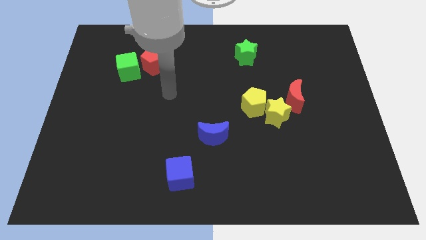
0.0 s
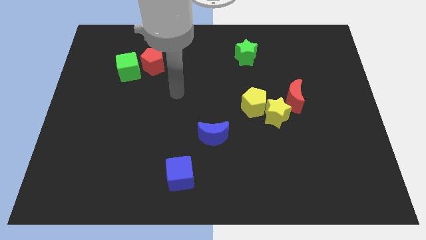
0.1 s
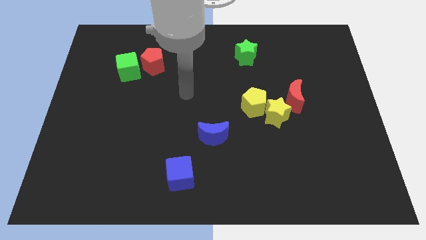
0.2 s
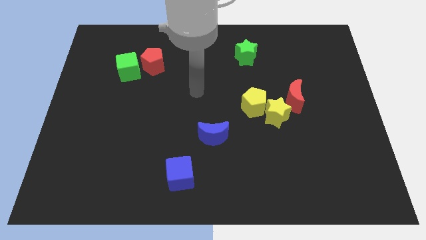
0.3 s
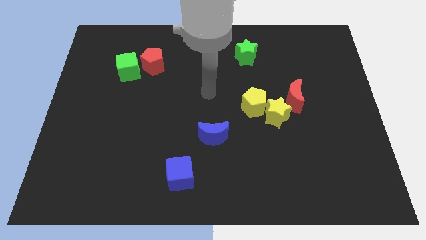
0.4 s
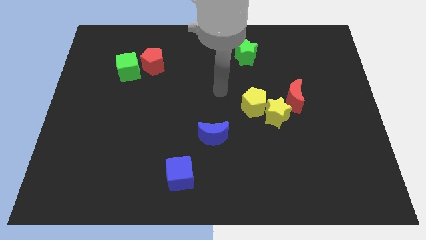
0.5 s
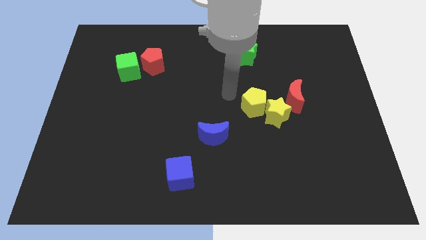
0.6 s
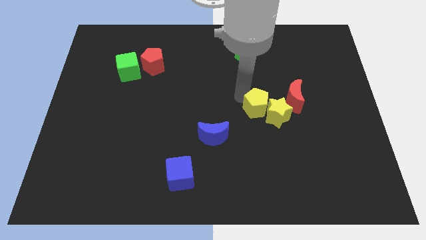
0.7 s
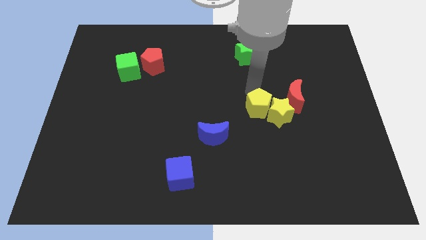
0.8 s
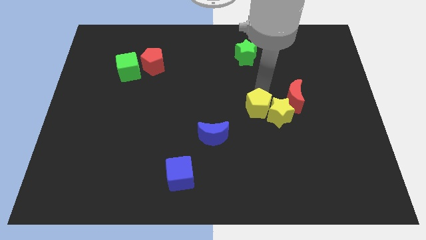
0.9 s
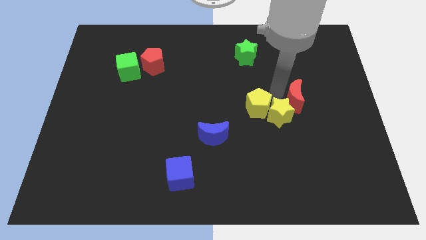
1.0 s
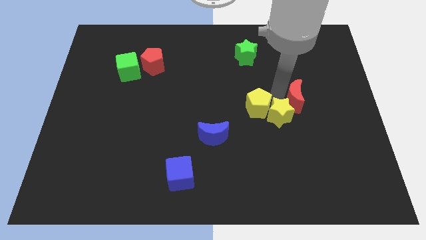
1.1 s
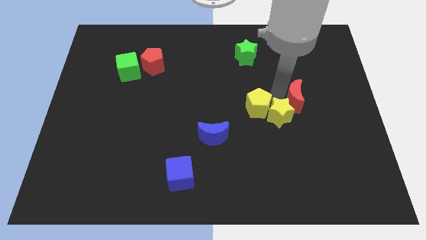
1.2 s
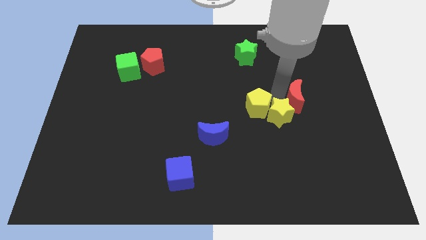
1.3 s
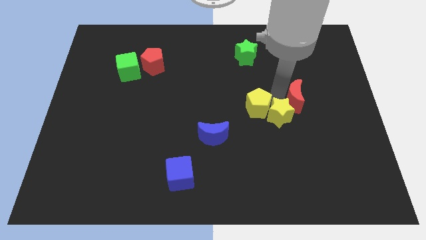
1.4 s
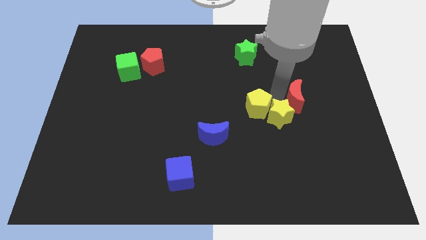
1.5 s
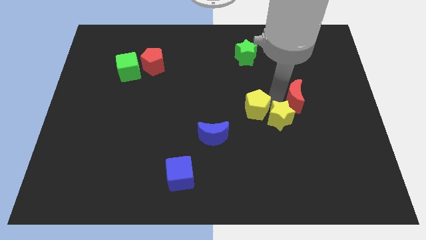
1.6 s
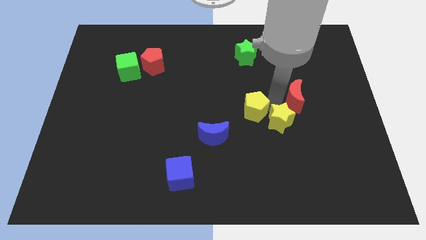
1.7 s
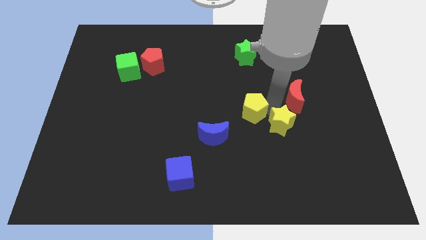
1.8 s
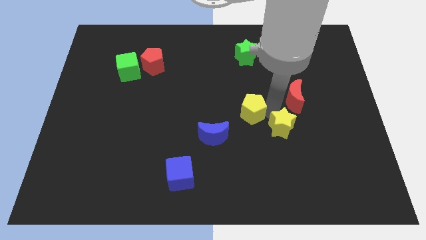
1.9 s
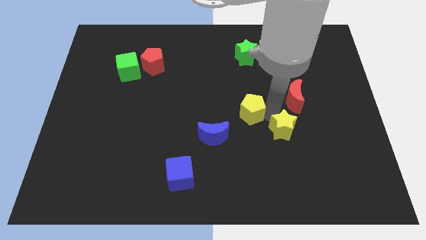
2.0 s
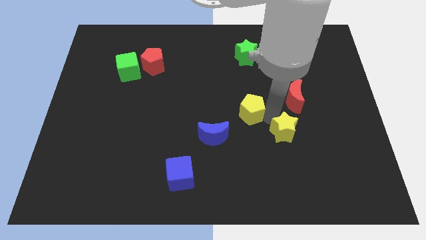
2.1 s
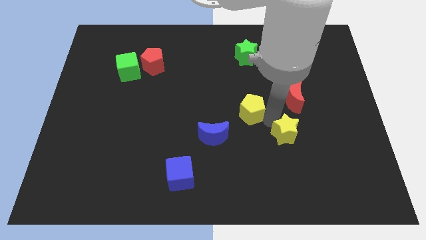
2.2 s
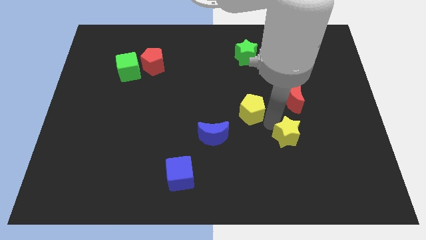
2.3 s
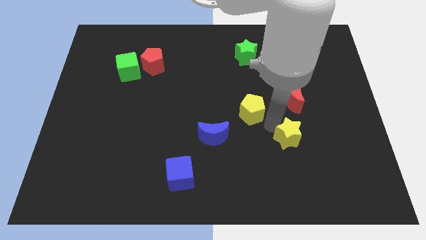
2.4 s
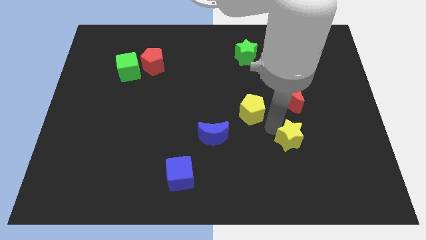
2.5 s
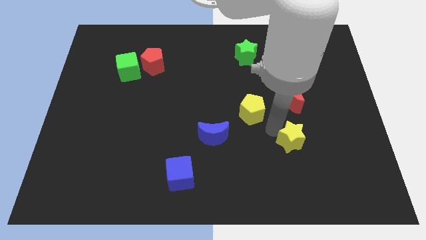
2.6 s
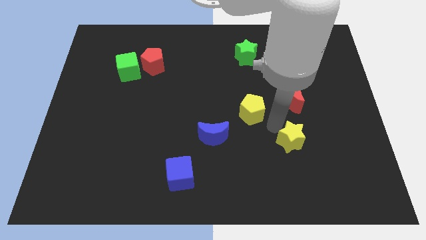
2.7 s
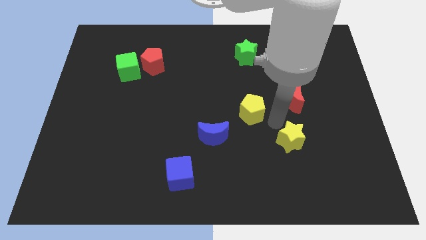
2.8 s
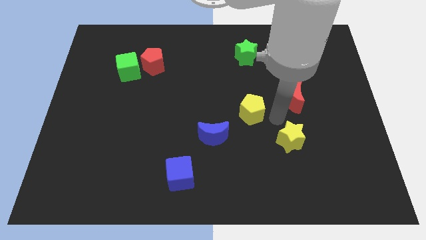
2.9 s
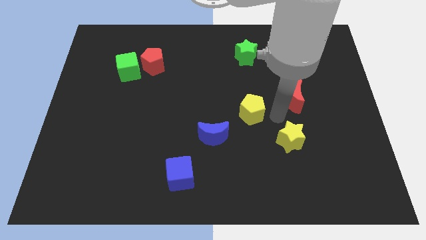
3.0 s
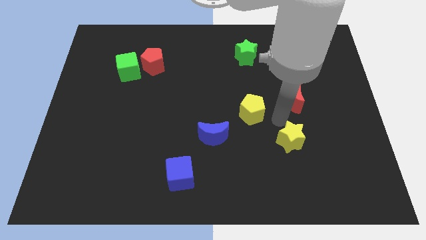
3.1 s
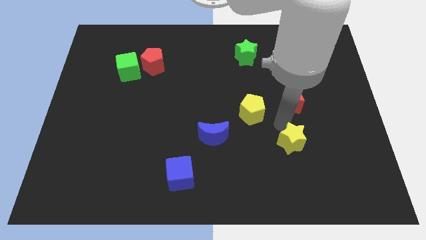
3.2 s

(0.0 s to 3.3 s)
move the yellow star away from the yellow pentagon and red moon

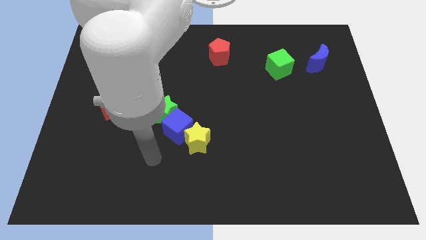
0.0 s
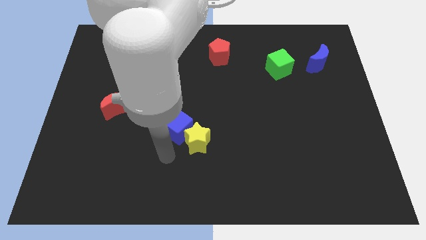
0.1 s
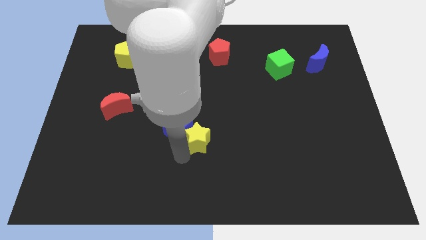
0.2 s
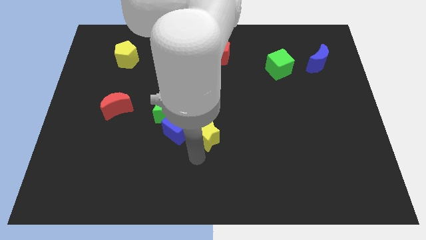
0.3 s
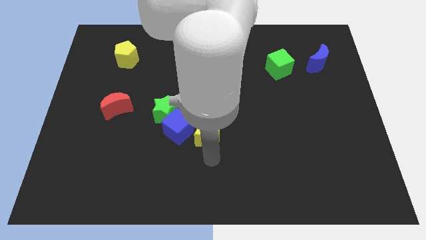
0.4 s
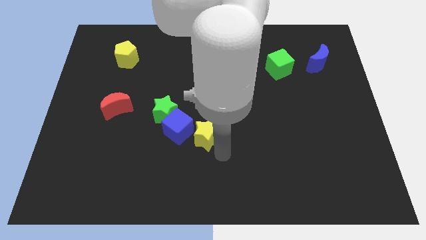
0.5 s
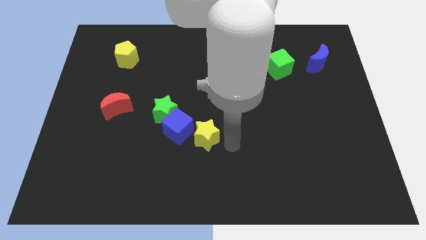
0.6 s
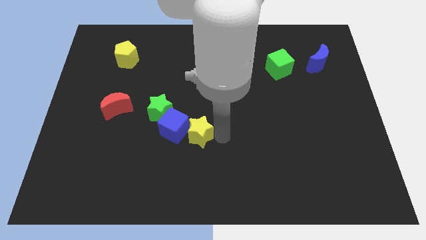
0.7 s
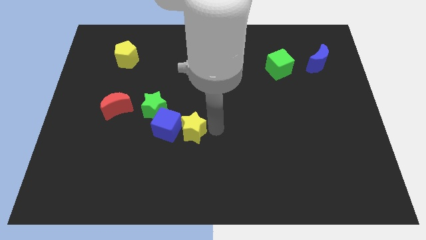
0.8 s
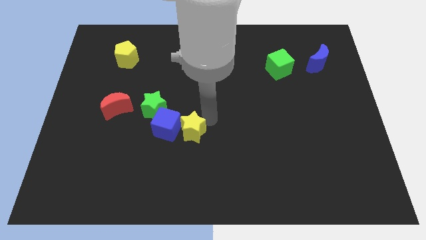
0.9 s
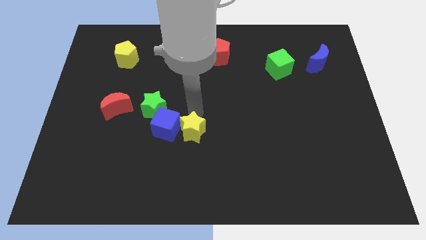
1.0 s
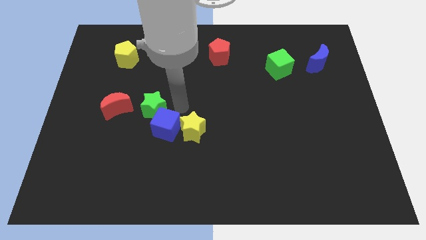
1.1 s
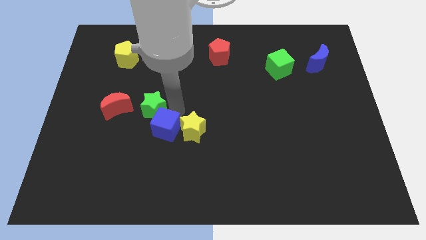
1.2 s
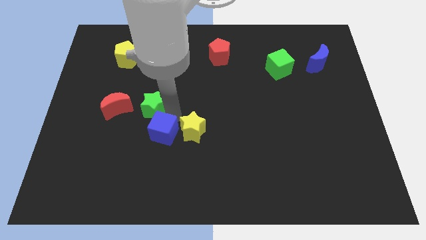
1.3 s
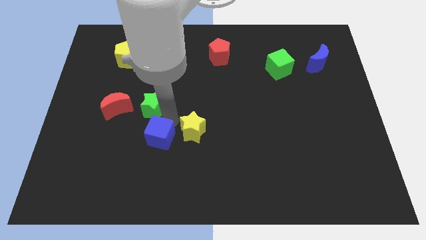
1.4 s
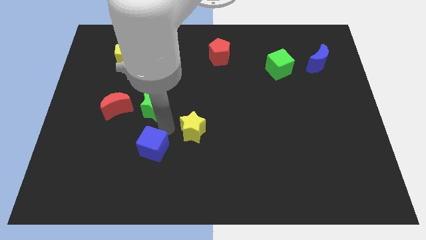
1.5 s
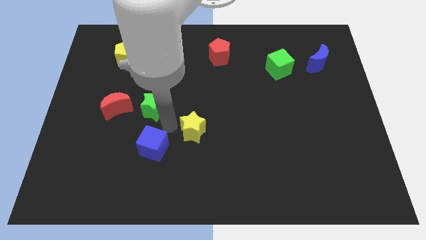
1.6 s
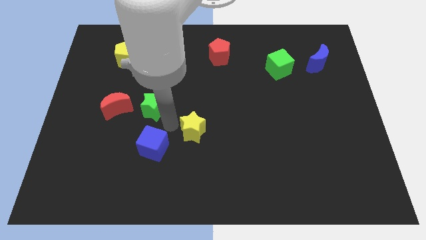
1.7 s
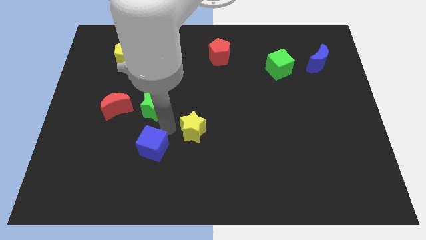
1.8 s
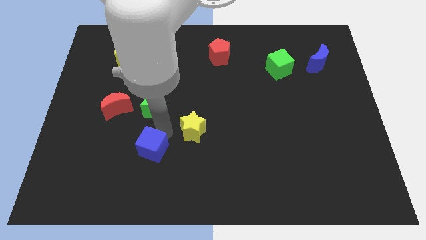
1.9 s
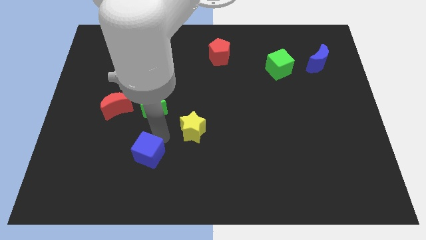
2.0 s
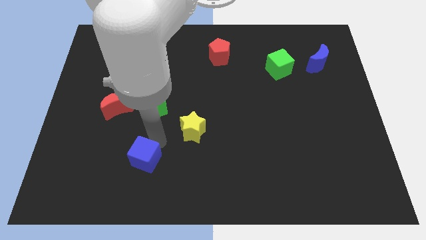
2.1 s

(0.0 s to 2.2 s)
pull the blue cube apart from the green star and yellow star

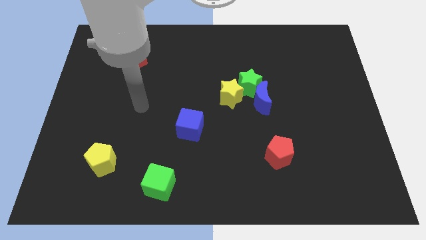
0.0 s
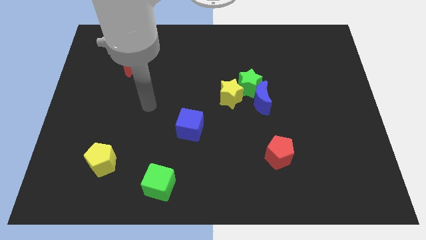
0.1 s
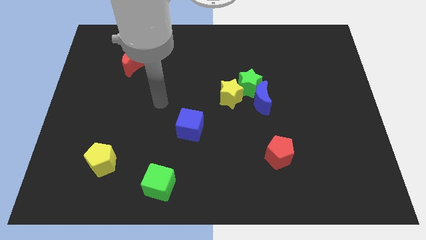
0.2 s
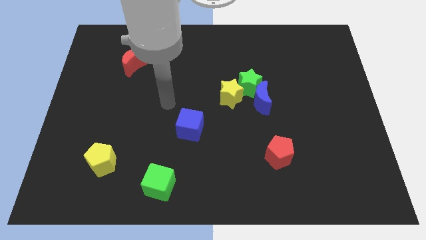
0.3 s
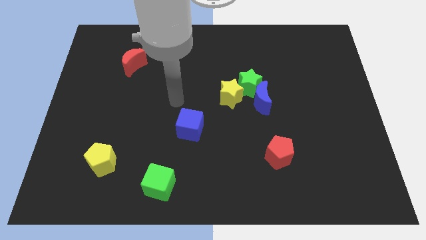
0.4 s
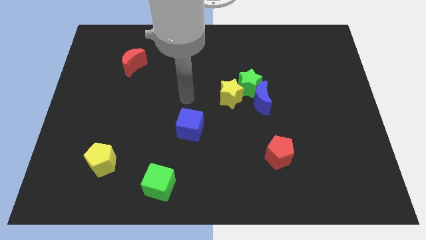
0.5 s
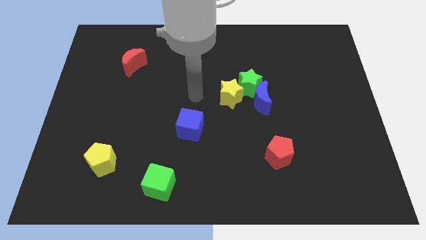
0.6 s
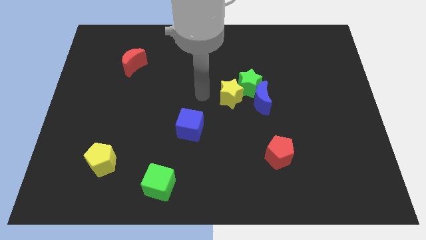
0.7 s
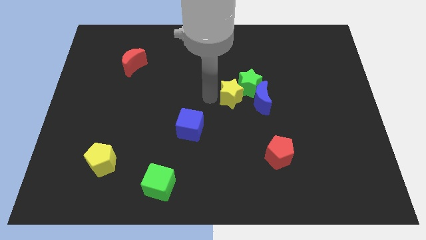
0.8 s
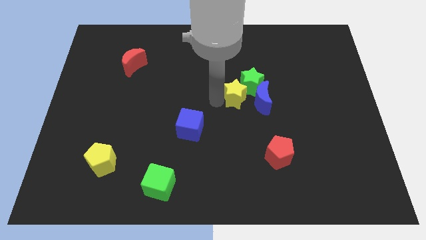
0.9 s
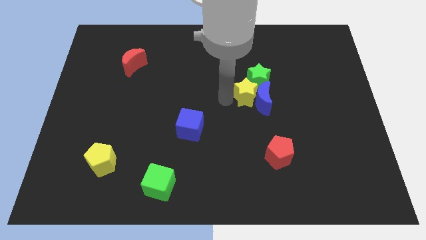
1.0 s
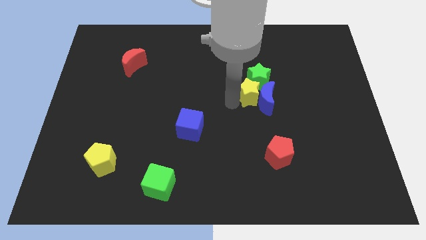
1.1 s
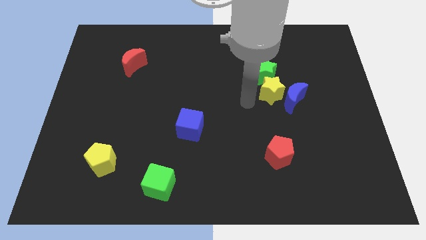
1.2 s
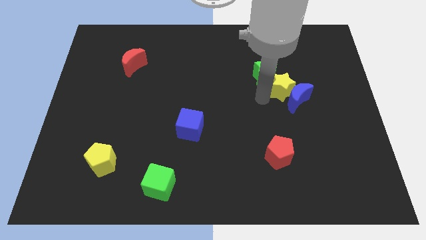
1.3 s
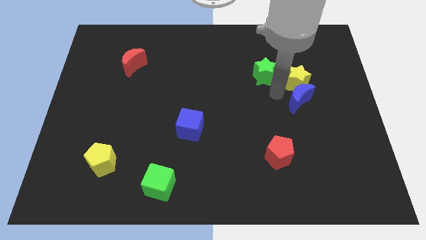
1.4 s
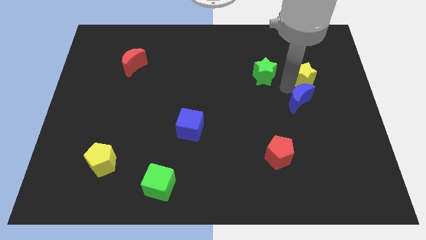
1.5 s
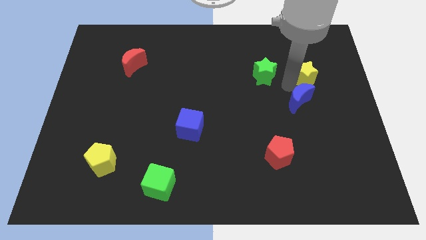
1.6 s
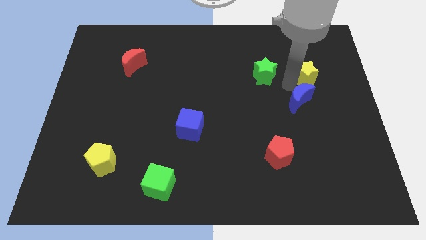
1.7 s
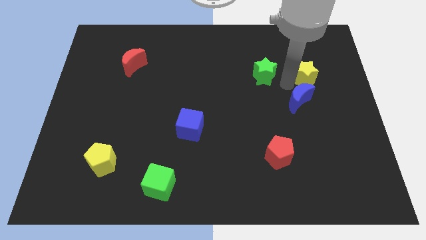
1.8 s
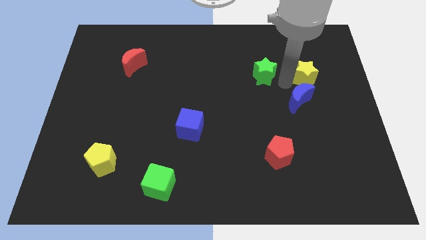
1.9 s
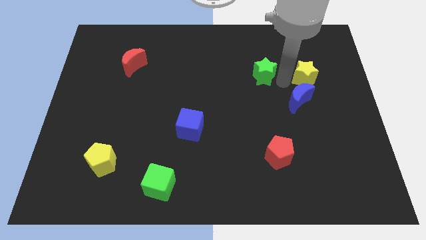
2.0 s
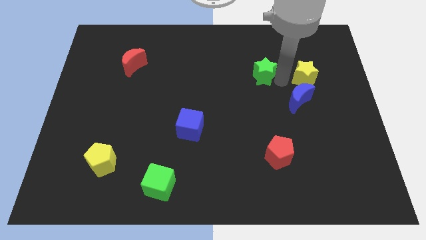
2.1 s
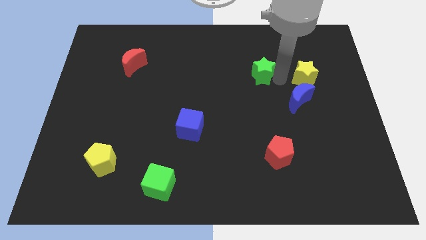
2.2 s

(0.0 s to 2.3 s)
pull the green star apart from the blue moon and yellow star

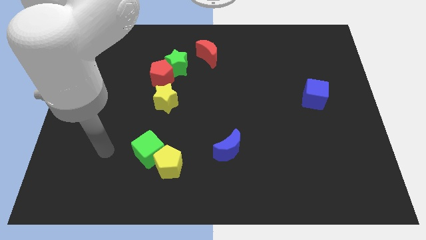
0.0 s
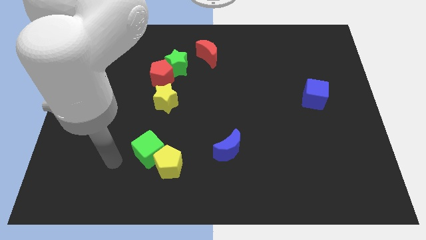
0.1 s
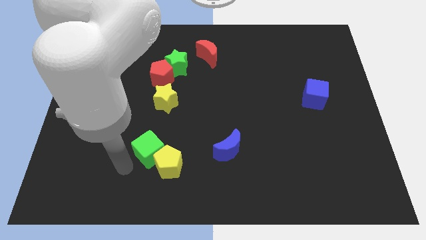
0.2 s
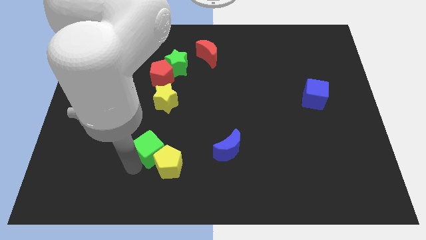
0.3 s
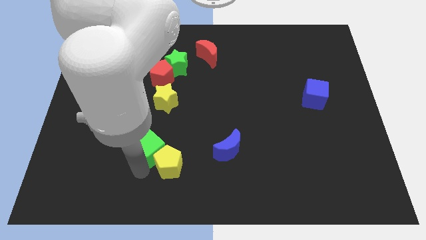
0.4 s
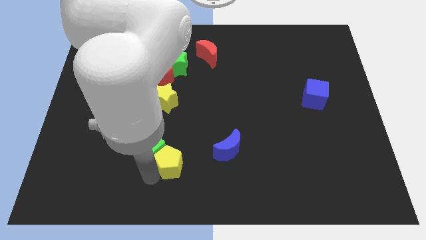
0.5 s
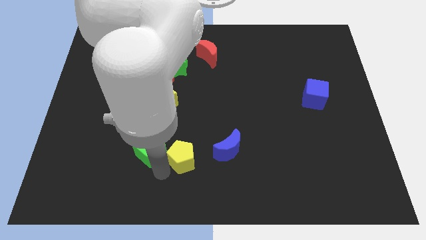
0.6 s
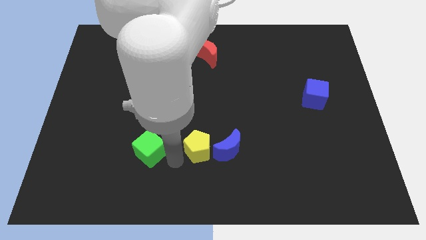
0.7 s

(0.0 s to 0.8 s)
separate the green cube from the yellow pentagon

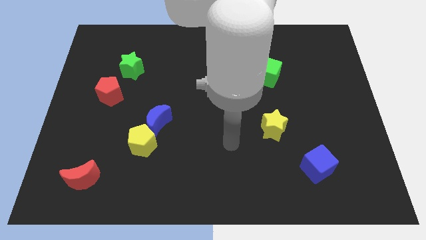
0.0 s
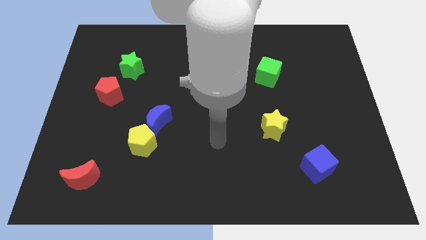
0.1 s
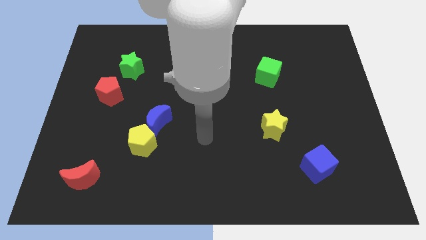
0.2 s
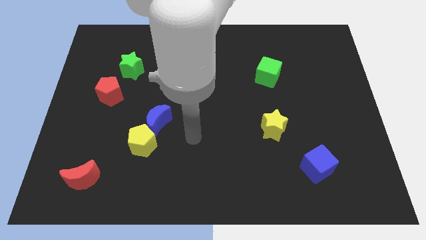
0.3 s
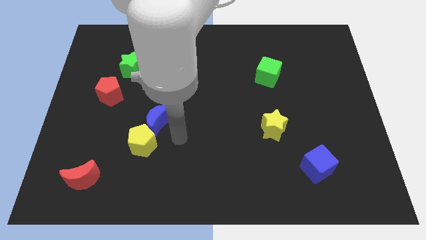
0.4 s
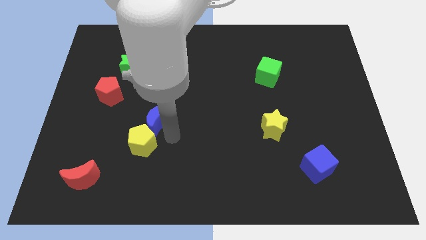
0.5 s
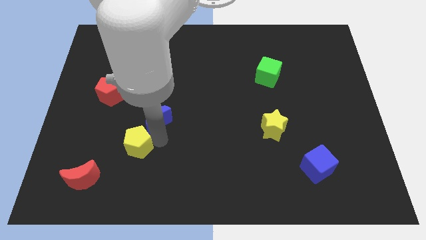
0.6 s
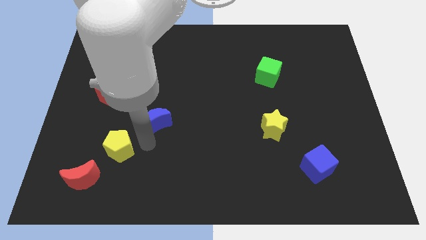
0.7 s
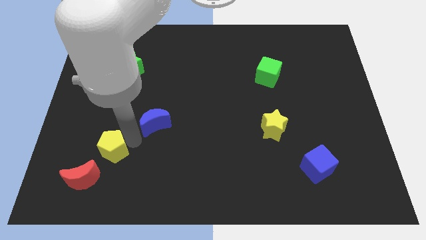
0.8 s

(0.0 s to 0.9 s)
move the blue moon away from the yellow pentagon

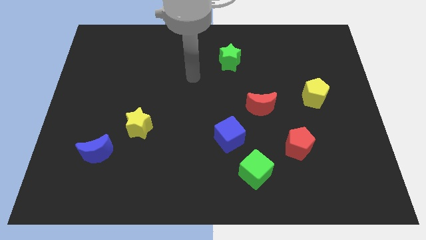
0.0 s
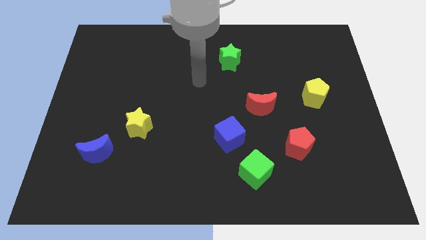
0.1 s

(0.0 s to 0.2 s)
pull the blue cube apart from the green cube
